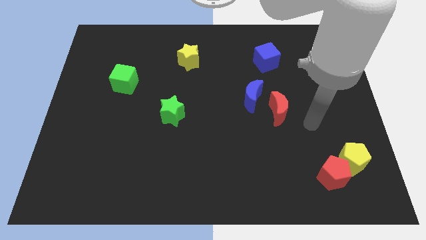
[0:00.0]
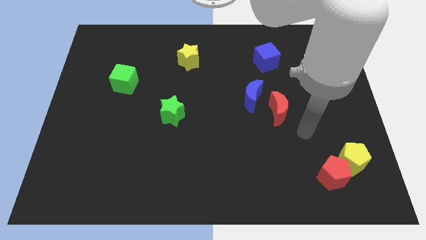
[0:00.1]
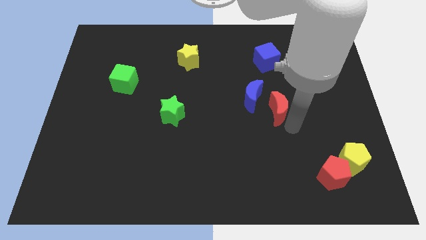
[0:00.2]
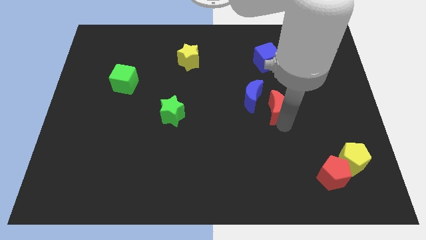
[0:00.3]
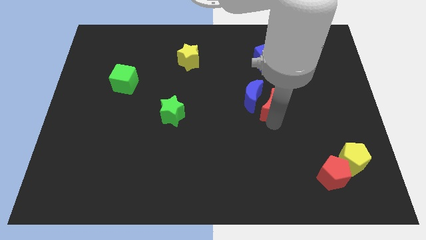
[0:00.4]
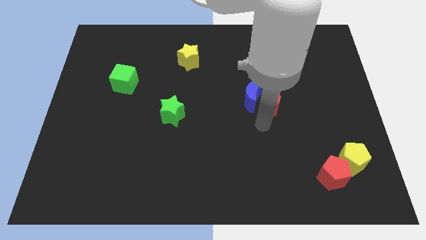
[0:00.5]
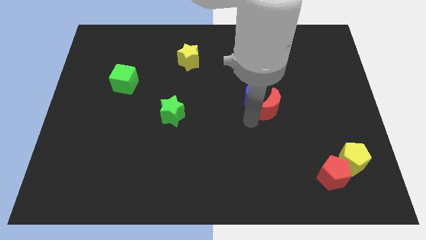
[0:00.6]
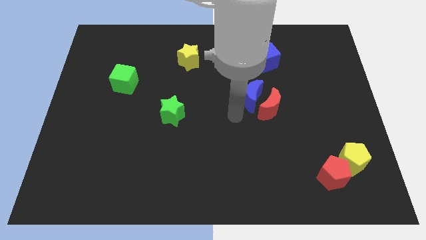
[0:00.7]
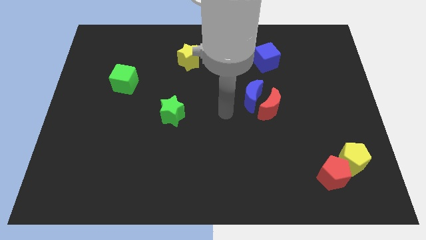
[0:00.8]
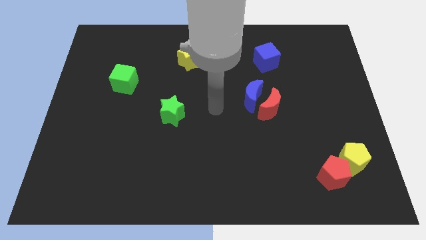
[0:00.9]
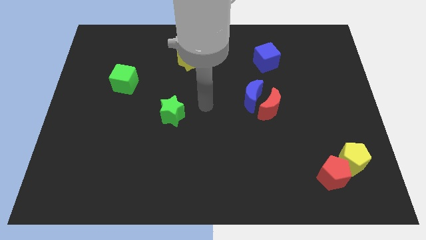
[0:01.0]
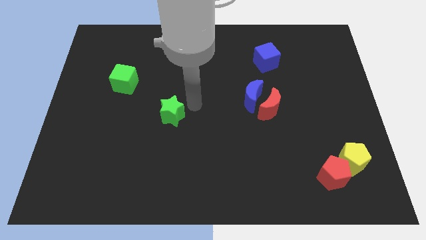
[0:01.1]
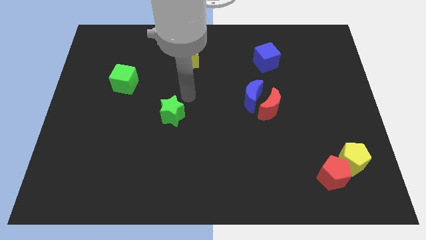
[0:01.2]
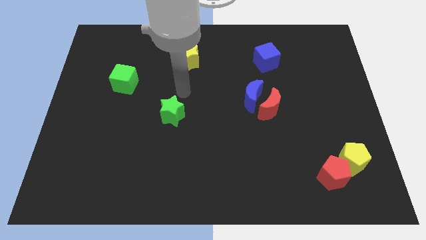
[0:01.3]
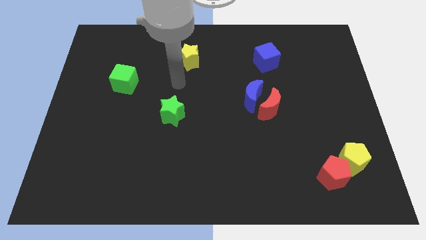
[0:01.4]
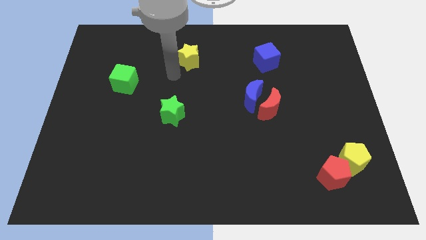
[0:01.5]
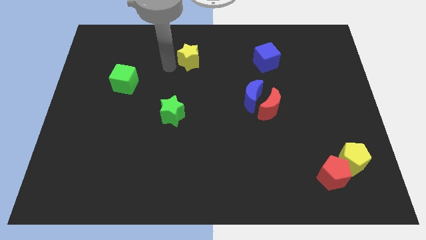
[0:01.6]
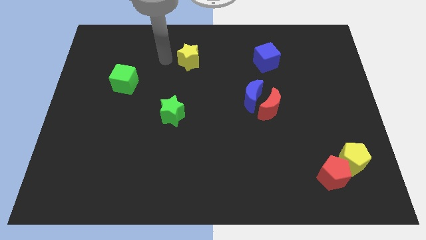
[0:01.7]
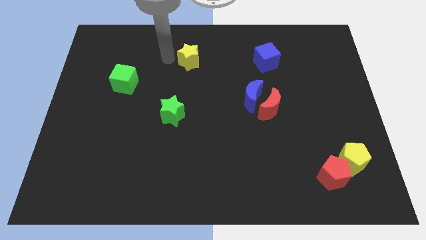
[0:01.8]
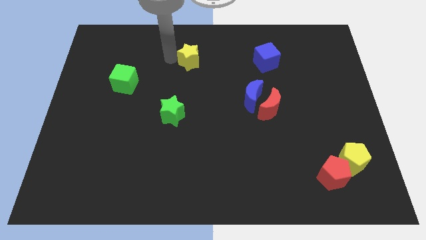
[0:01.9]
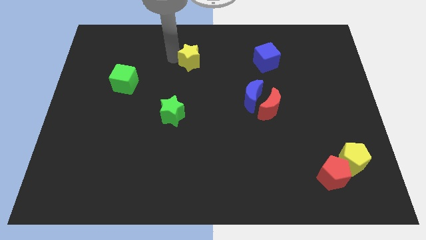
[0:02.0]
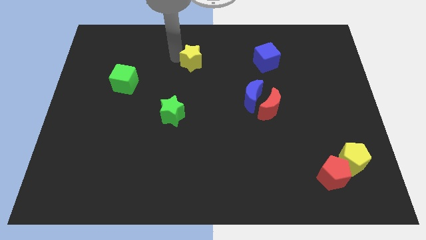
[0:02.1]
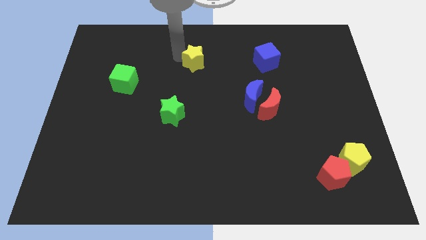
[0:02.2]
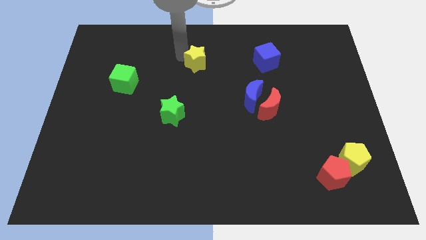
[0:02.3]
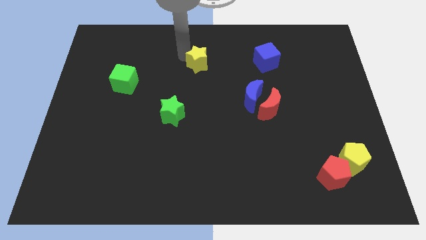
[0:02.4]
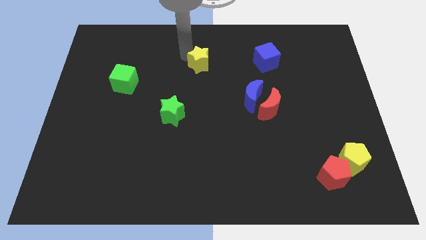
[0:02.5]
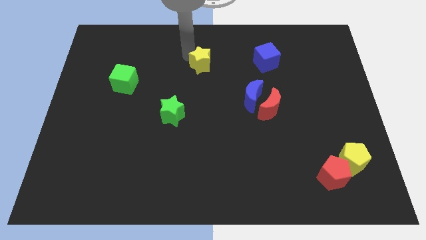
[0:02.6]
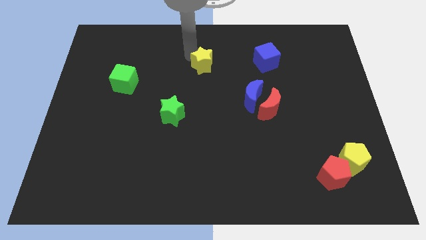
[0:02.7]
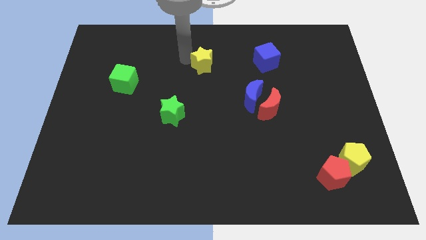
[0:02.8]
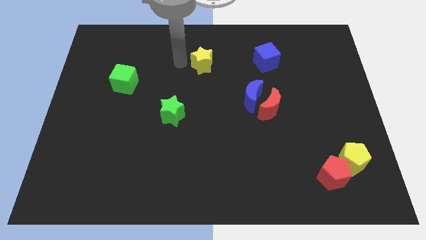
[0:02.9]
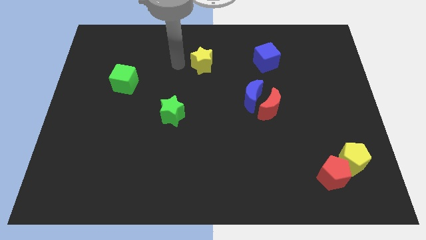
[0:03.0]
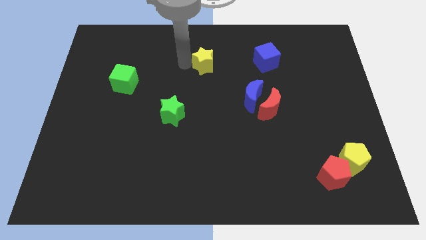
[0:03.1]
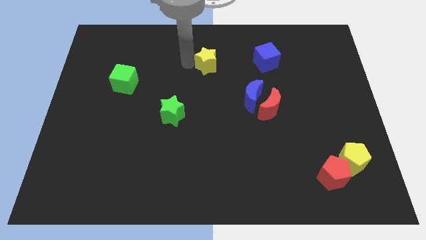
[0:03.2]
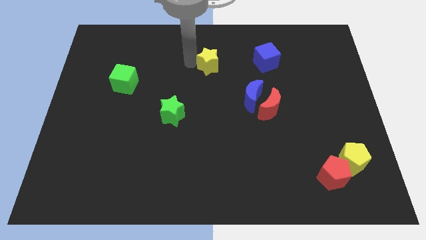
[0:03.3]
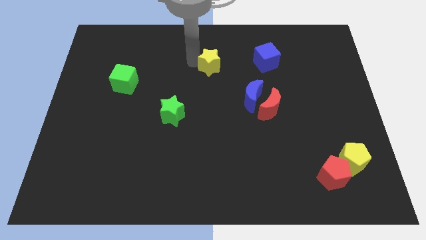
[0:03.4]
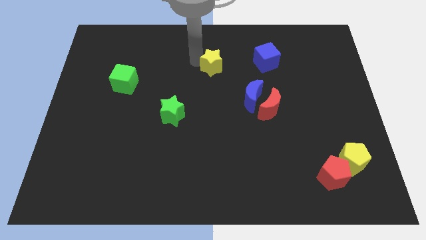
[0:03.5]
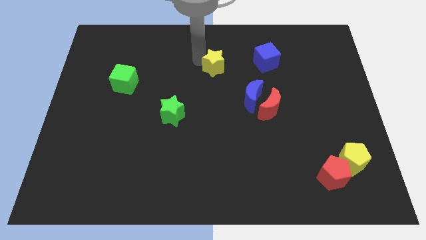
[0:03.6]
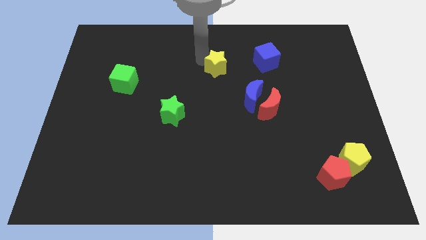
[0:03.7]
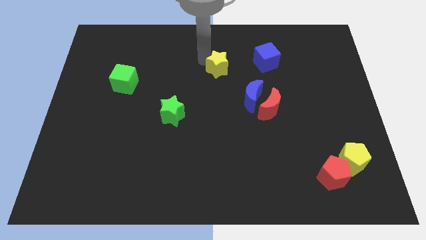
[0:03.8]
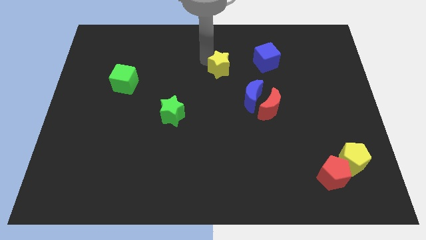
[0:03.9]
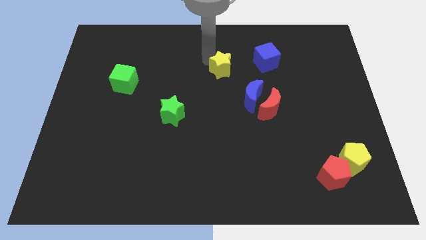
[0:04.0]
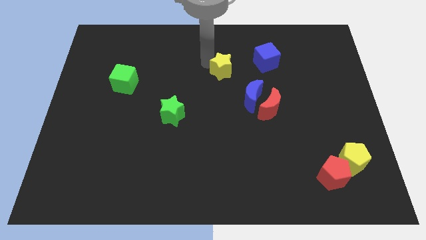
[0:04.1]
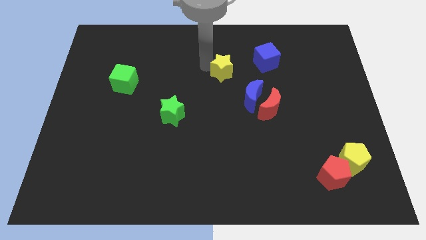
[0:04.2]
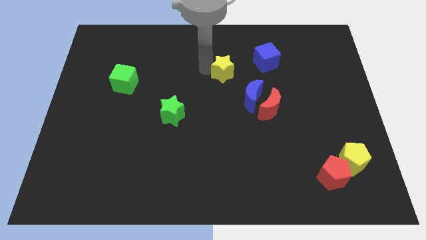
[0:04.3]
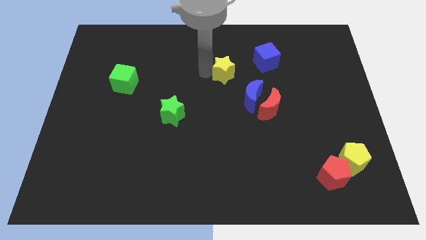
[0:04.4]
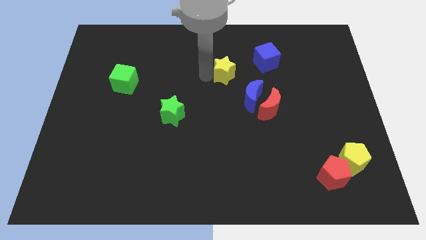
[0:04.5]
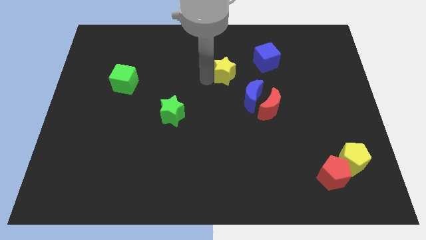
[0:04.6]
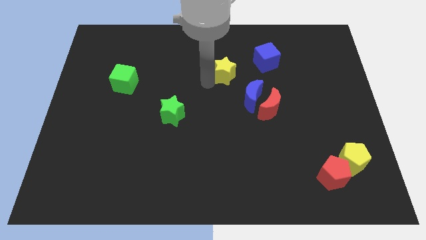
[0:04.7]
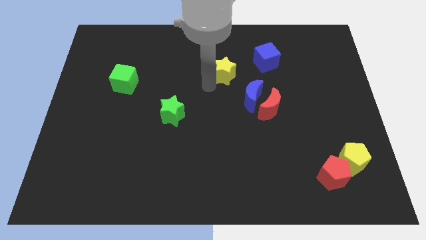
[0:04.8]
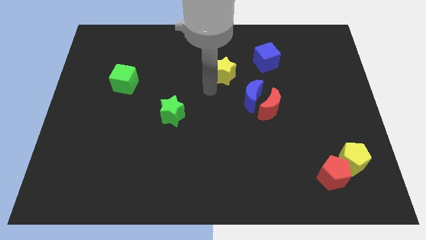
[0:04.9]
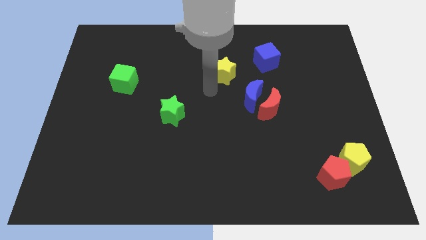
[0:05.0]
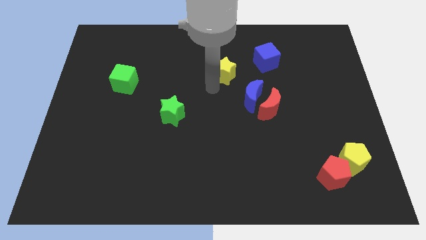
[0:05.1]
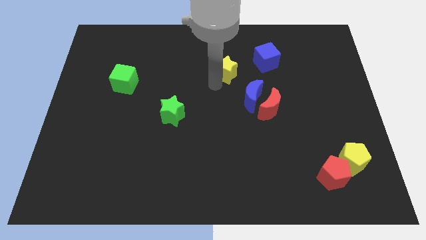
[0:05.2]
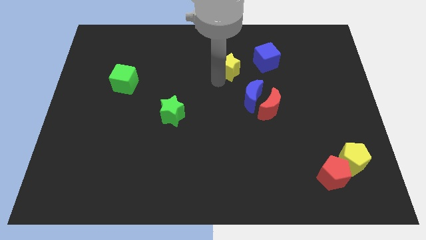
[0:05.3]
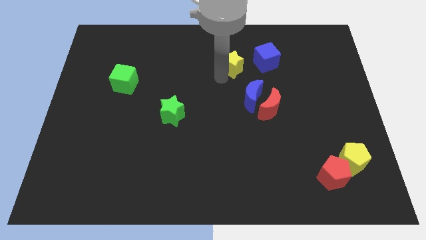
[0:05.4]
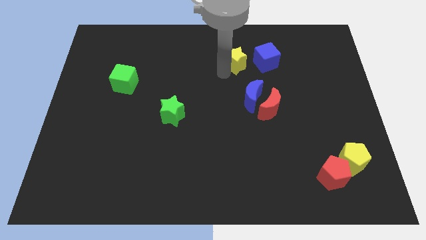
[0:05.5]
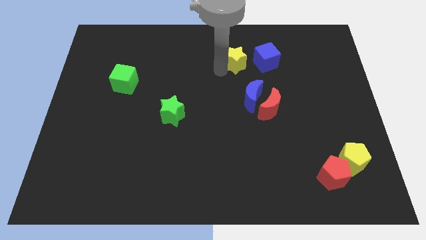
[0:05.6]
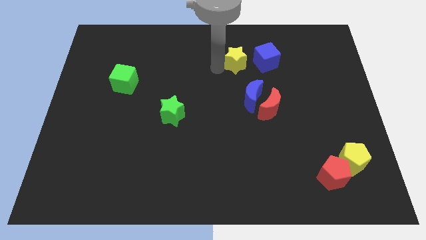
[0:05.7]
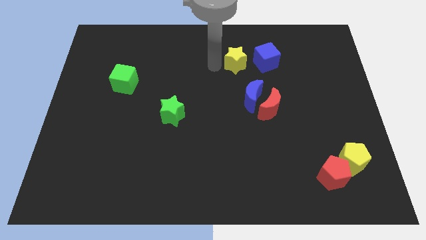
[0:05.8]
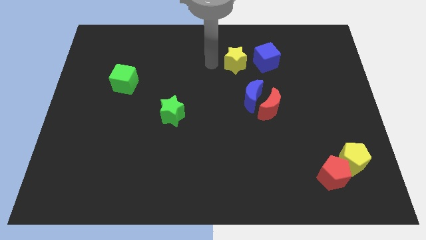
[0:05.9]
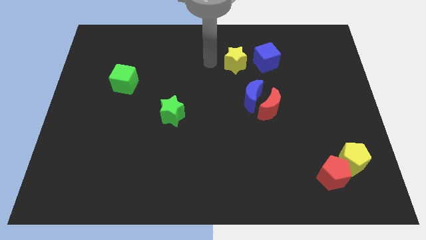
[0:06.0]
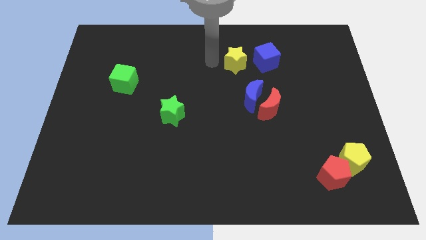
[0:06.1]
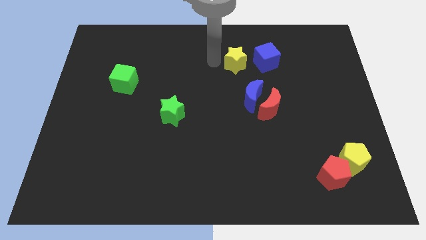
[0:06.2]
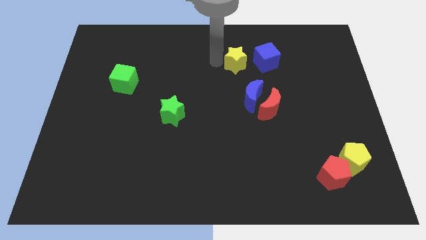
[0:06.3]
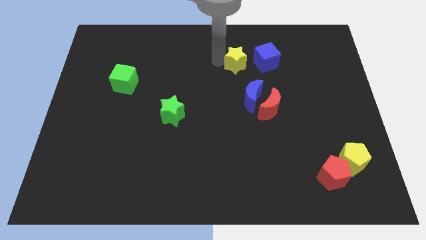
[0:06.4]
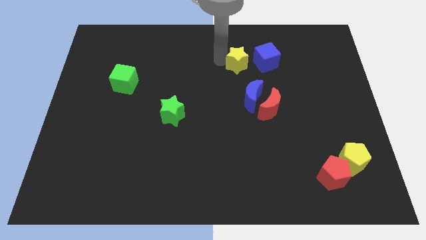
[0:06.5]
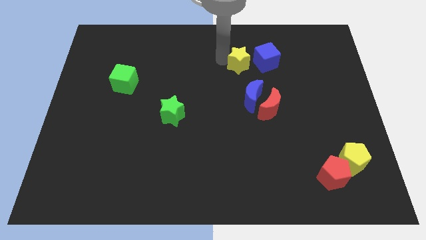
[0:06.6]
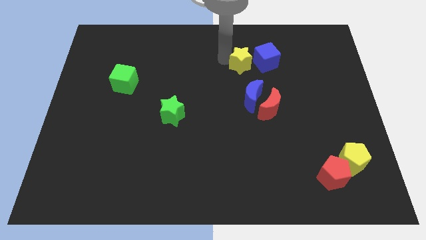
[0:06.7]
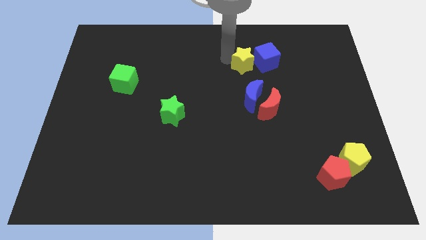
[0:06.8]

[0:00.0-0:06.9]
put the yellow star towards the blue cube
